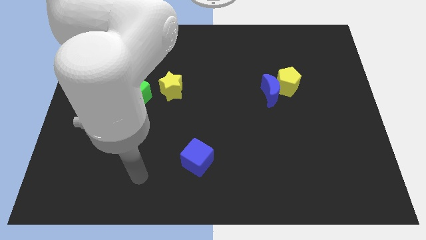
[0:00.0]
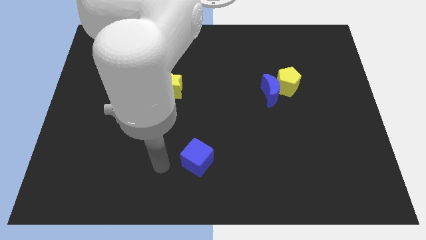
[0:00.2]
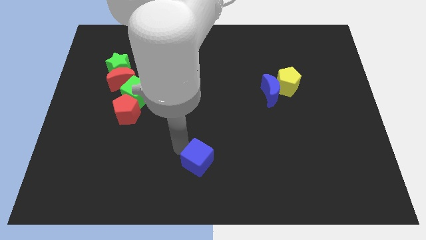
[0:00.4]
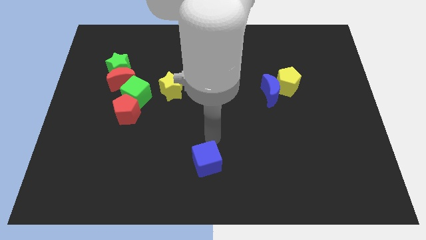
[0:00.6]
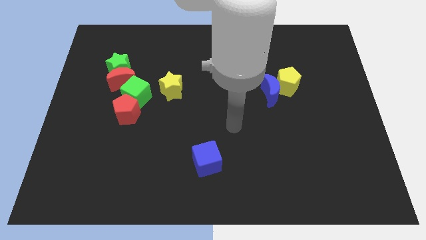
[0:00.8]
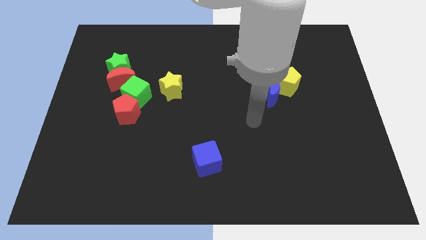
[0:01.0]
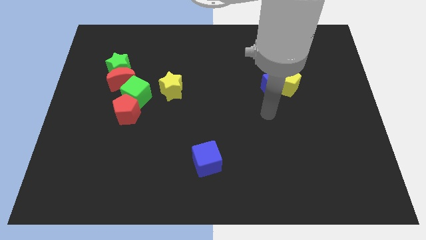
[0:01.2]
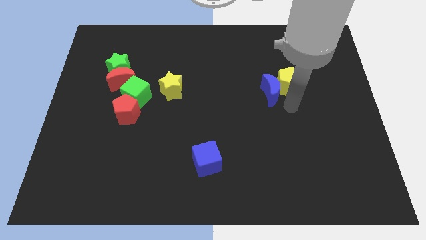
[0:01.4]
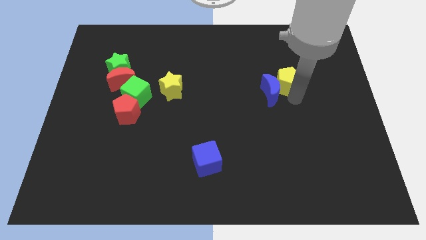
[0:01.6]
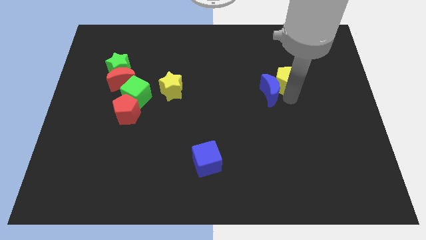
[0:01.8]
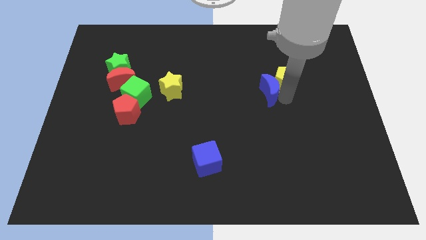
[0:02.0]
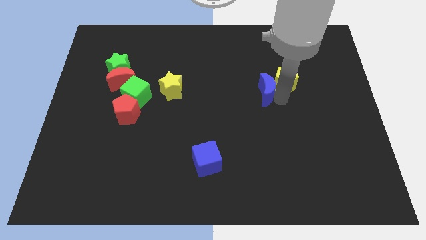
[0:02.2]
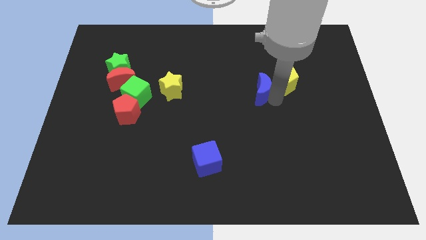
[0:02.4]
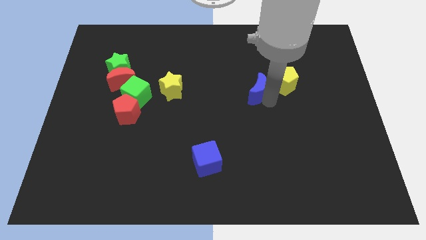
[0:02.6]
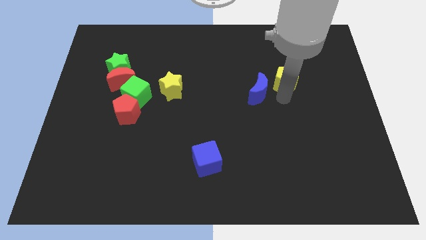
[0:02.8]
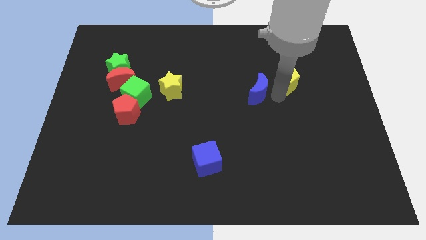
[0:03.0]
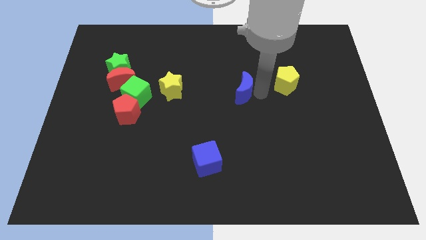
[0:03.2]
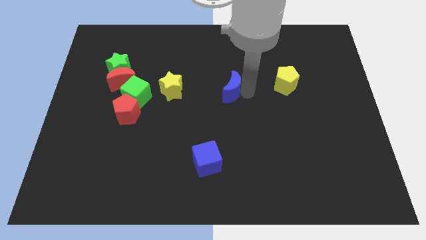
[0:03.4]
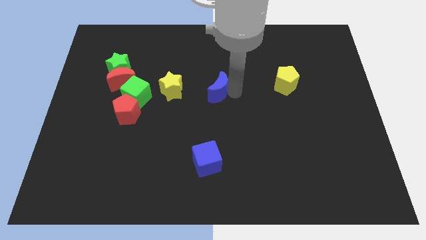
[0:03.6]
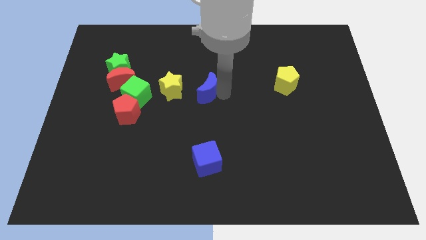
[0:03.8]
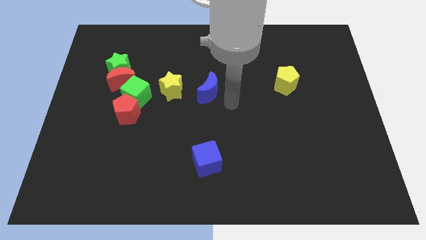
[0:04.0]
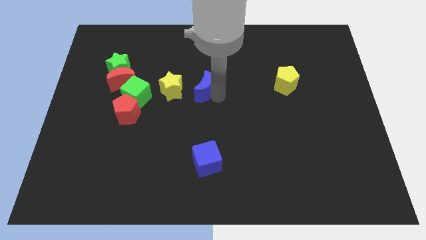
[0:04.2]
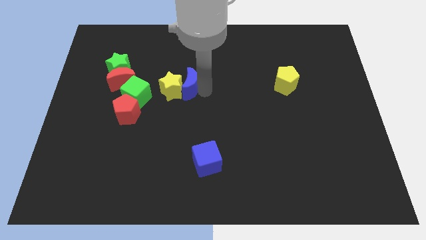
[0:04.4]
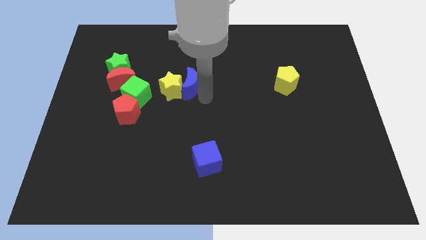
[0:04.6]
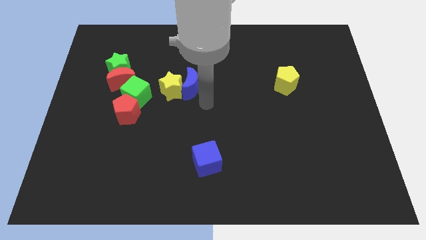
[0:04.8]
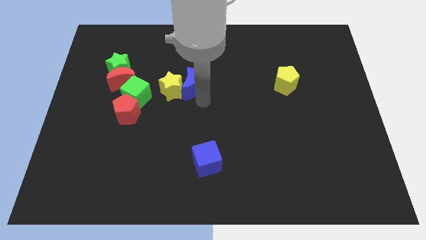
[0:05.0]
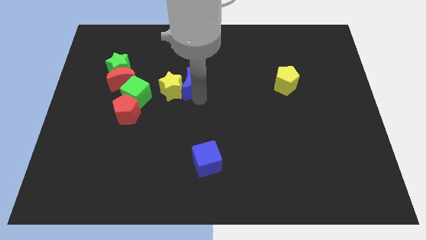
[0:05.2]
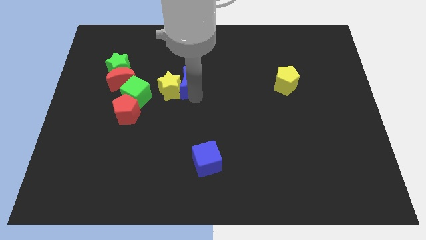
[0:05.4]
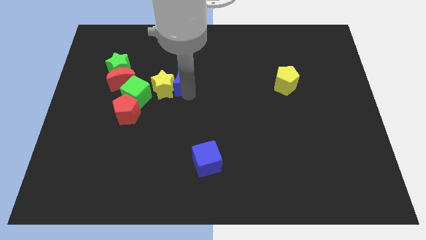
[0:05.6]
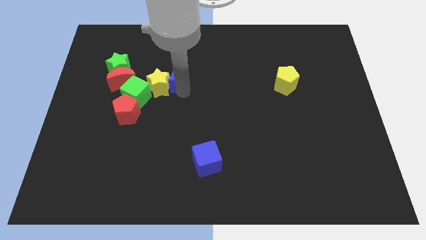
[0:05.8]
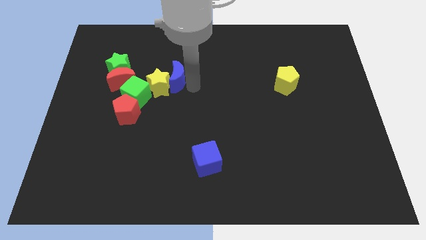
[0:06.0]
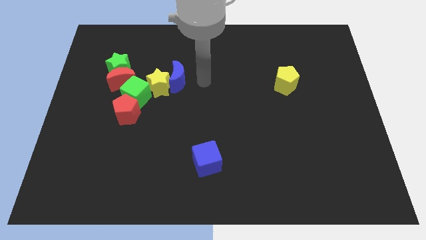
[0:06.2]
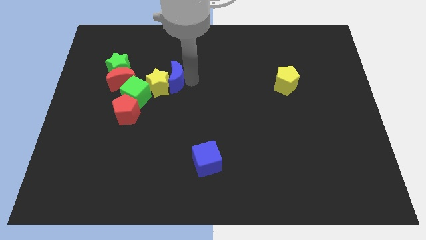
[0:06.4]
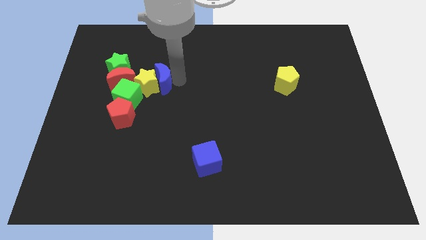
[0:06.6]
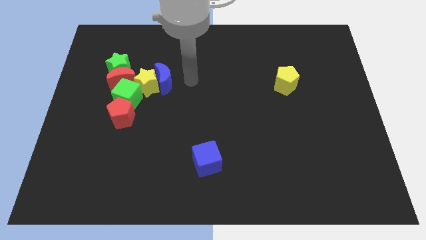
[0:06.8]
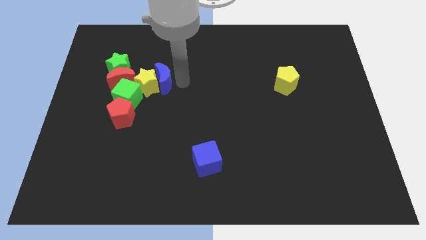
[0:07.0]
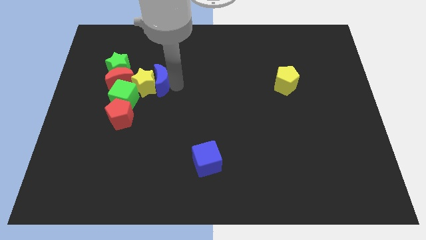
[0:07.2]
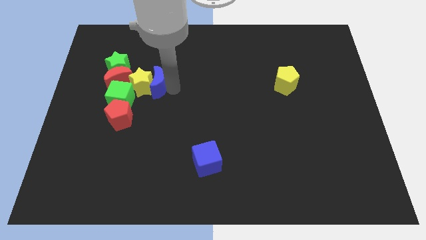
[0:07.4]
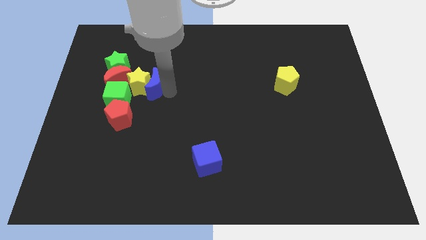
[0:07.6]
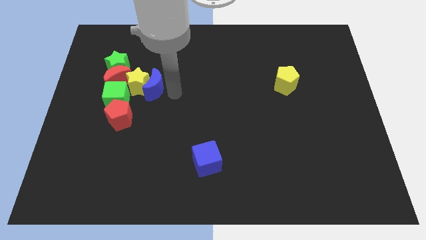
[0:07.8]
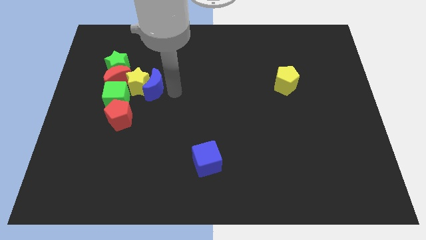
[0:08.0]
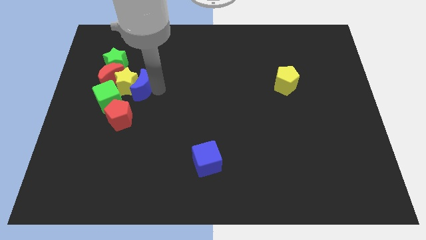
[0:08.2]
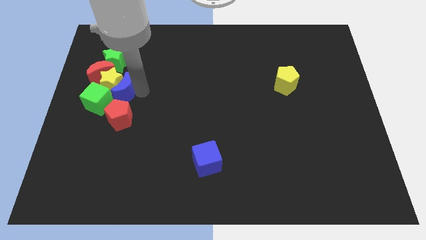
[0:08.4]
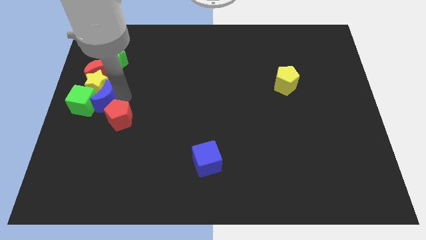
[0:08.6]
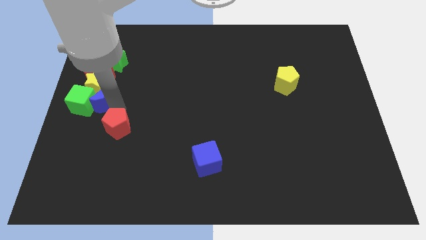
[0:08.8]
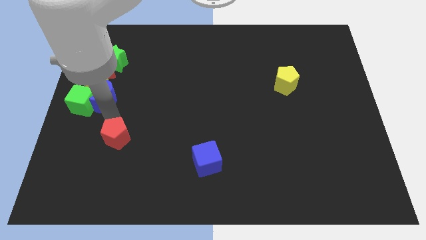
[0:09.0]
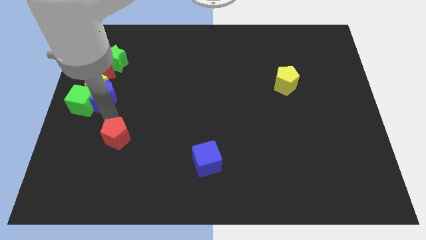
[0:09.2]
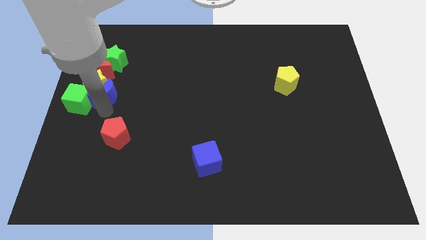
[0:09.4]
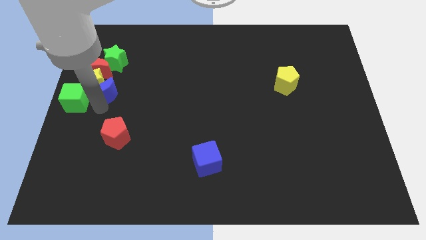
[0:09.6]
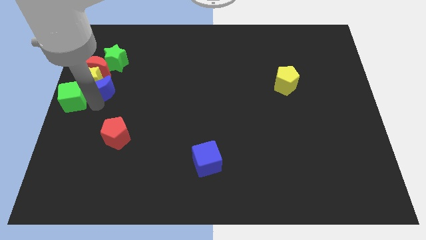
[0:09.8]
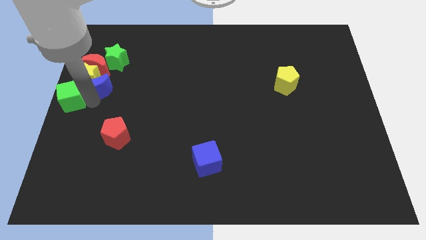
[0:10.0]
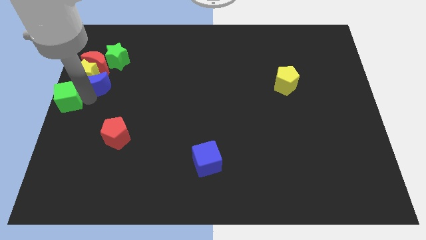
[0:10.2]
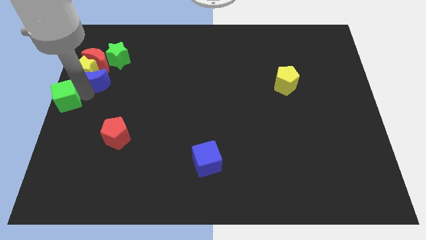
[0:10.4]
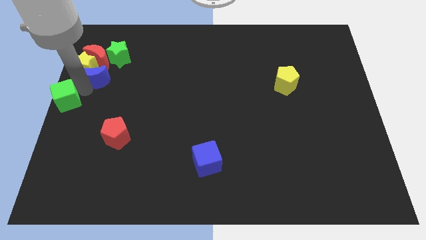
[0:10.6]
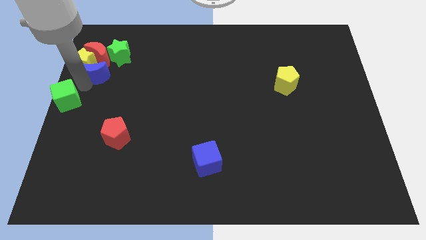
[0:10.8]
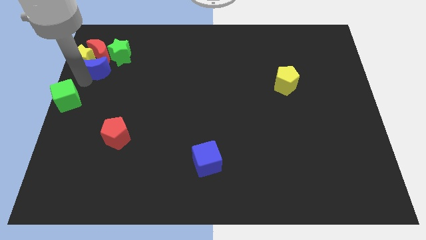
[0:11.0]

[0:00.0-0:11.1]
slide the blue moon to the red moon
